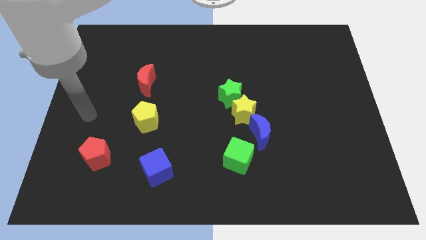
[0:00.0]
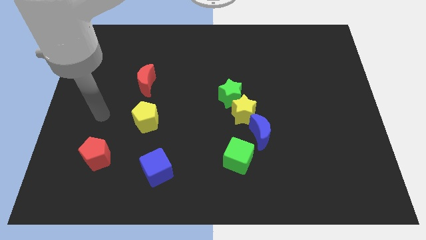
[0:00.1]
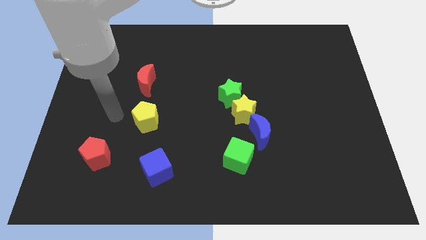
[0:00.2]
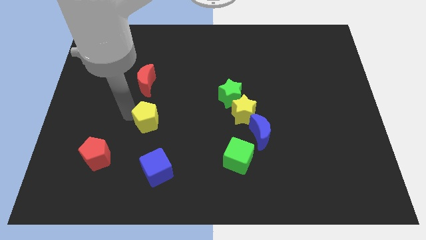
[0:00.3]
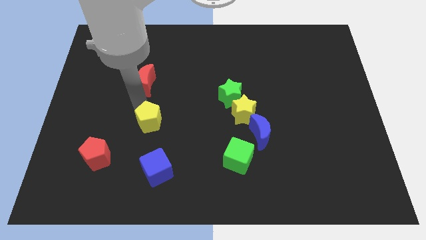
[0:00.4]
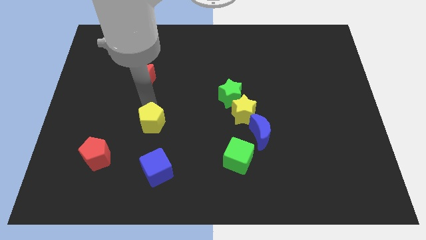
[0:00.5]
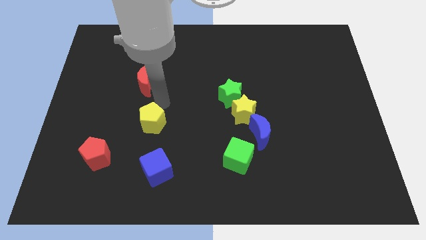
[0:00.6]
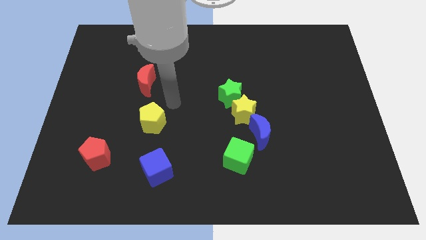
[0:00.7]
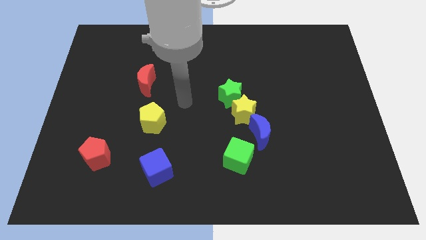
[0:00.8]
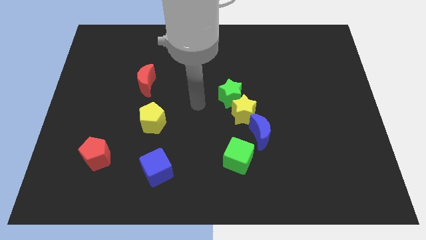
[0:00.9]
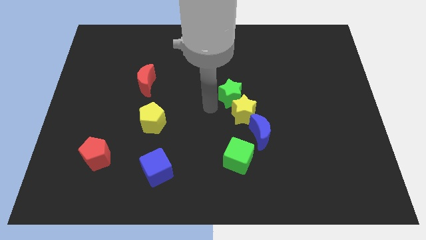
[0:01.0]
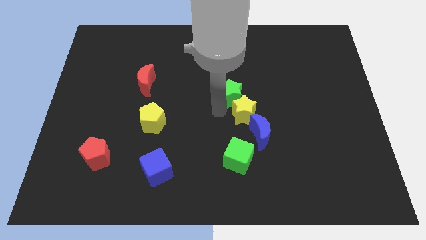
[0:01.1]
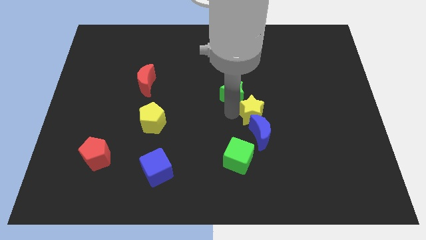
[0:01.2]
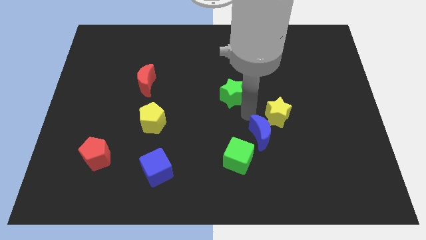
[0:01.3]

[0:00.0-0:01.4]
pull the green star apart from the yellow star

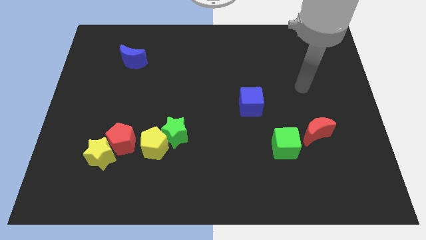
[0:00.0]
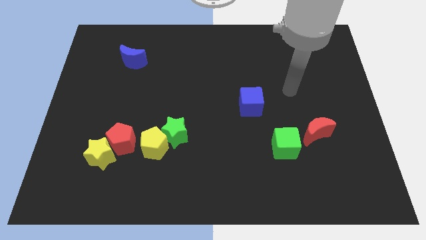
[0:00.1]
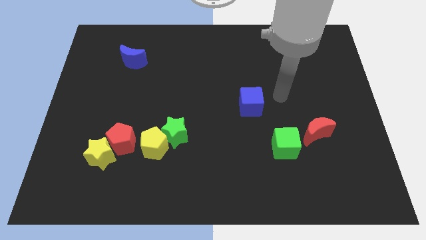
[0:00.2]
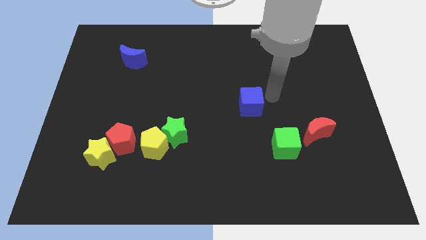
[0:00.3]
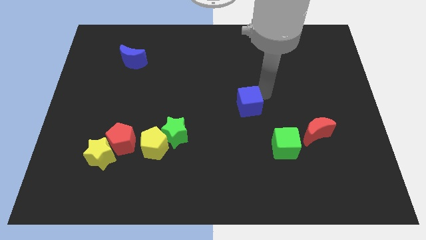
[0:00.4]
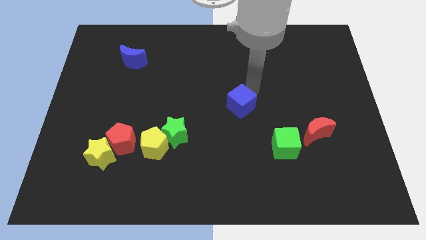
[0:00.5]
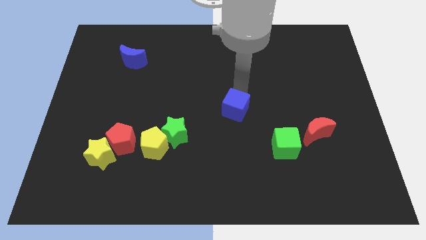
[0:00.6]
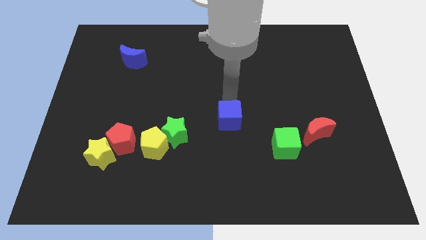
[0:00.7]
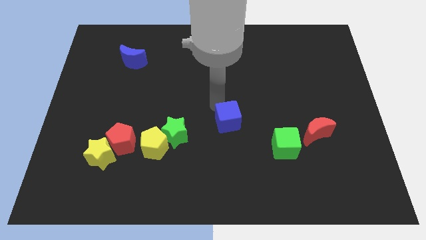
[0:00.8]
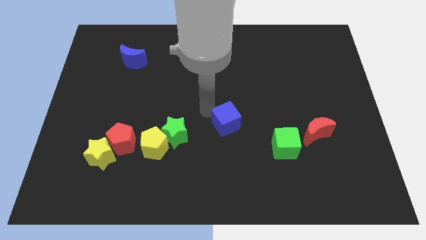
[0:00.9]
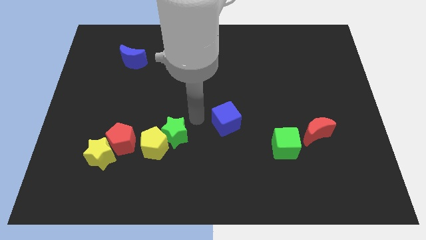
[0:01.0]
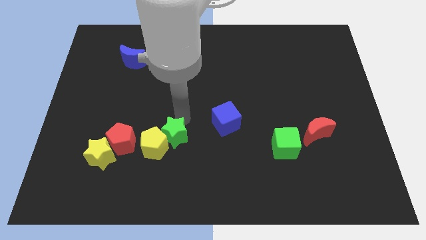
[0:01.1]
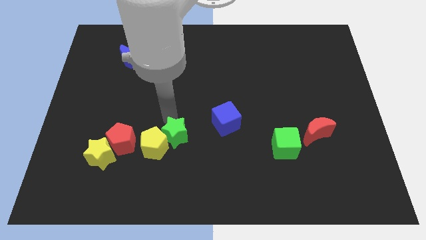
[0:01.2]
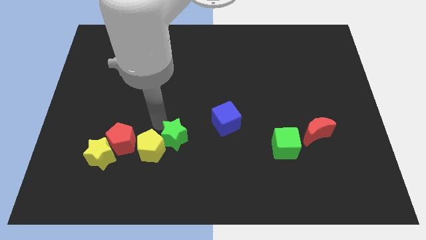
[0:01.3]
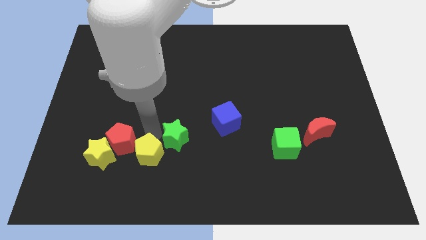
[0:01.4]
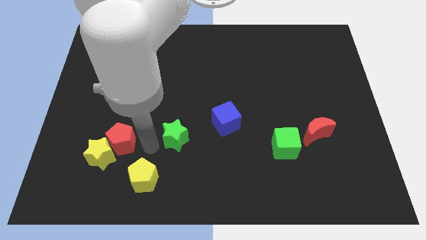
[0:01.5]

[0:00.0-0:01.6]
separate the green star from the yellow pentagon

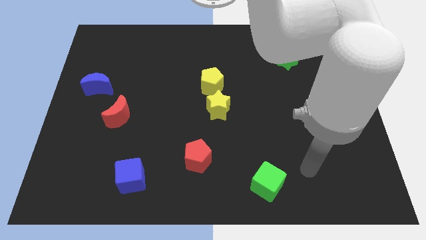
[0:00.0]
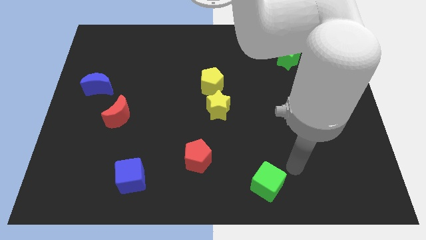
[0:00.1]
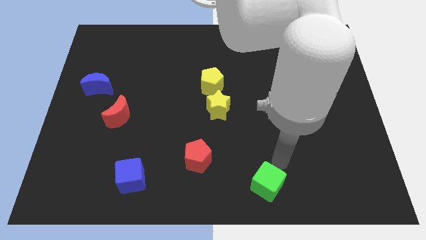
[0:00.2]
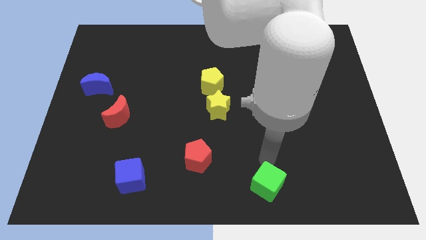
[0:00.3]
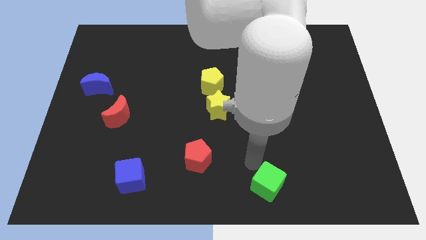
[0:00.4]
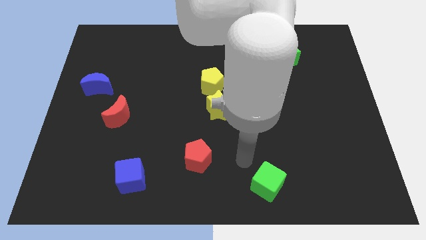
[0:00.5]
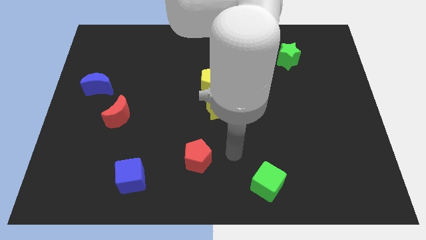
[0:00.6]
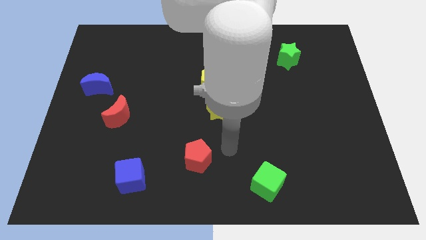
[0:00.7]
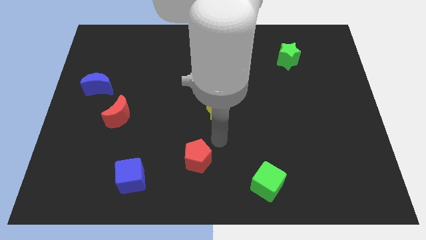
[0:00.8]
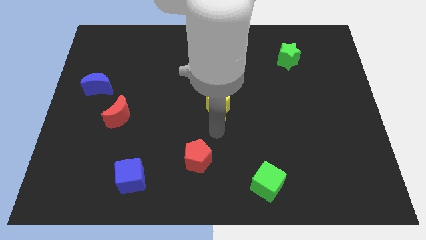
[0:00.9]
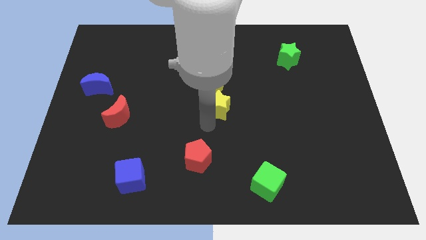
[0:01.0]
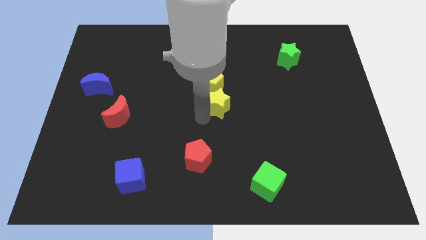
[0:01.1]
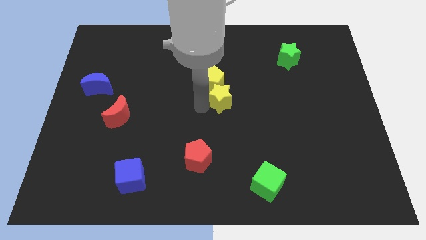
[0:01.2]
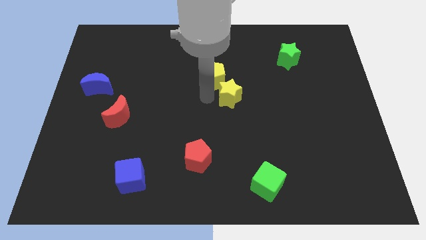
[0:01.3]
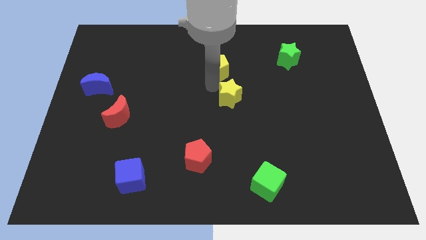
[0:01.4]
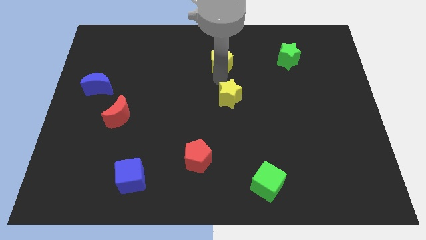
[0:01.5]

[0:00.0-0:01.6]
move the yellow star away from the yellow pentagon

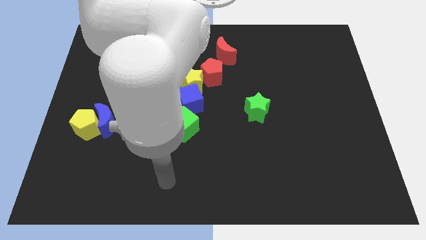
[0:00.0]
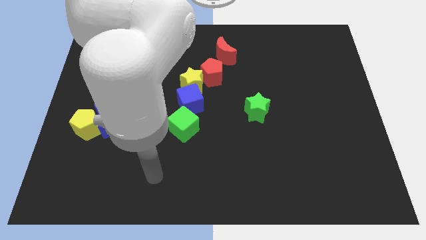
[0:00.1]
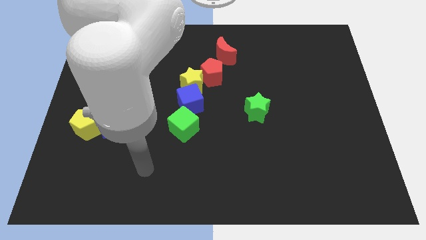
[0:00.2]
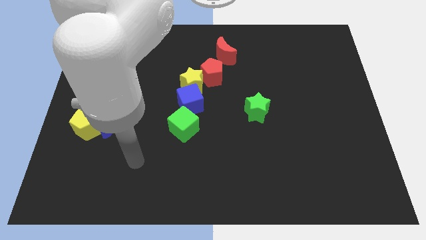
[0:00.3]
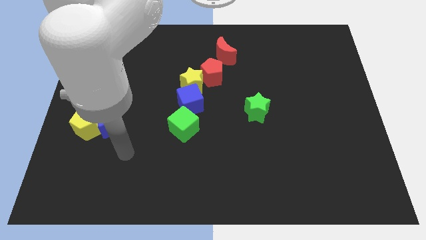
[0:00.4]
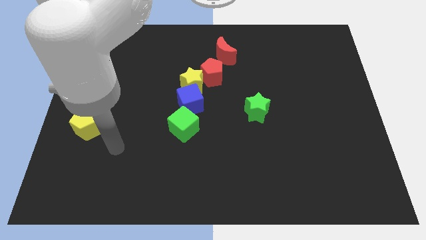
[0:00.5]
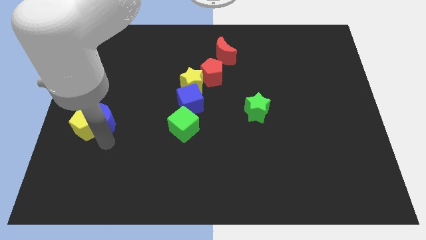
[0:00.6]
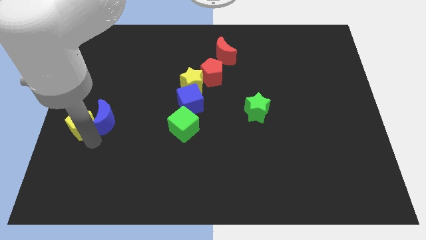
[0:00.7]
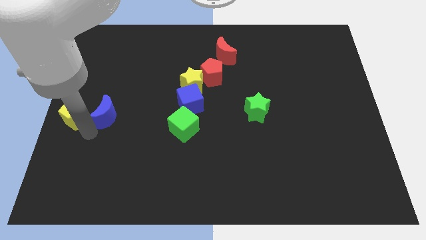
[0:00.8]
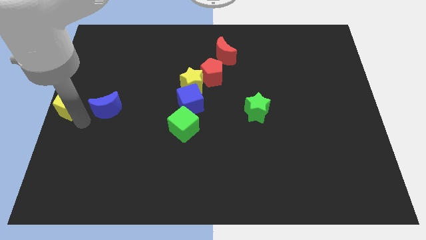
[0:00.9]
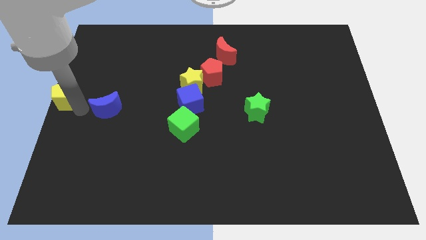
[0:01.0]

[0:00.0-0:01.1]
separate the blue moon from the yellow pentagon

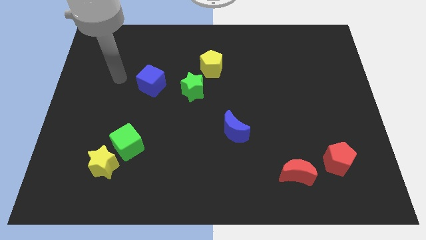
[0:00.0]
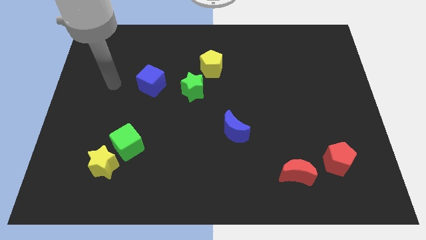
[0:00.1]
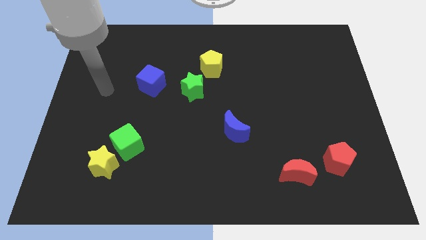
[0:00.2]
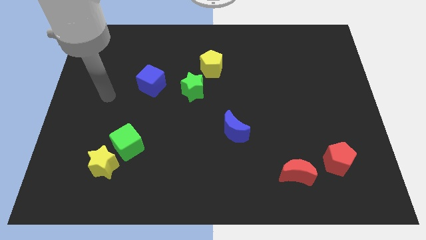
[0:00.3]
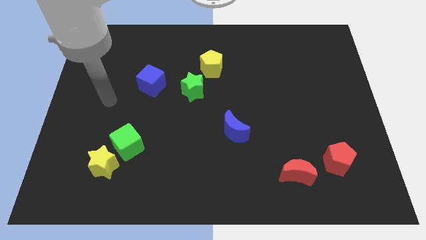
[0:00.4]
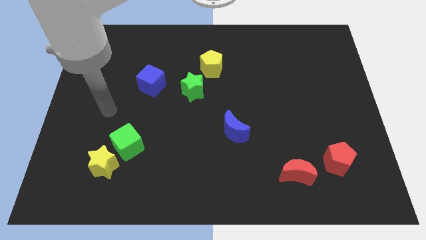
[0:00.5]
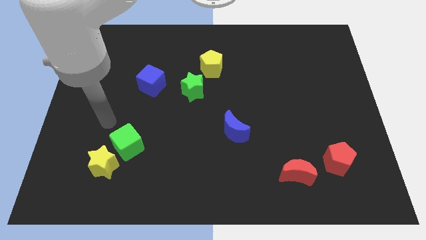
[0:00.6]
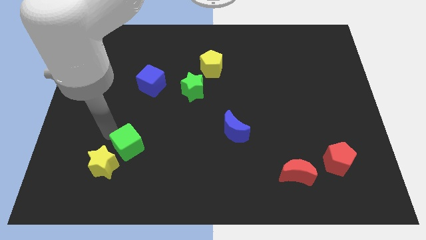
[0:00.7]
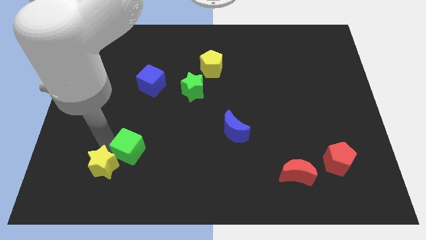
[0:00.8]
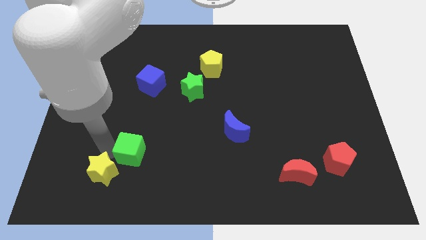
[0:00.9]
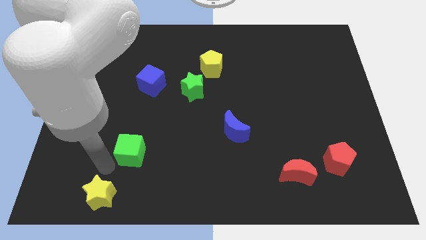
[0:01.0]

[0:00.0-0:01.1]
separate the green cube from the yellow star

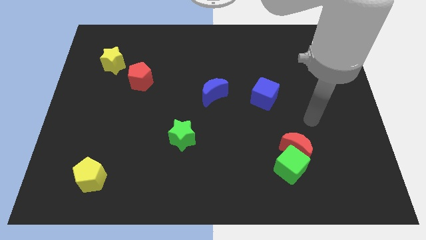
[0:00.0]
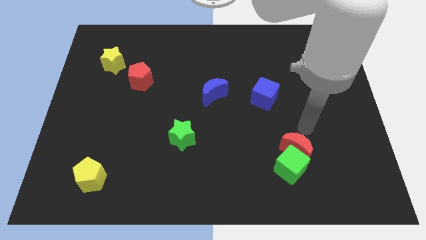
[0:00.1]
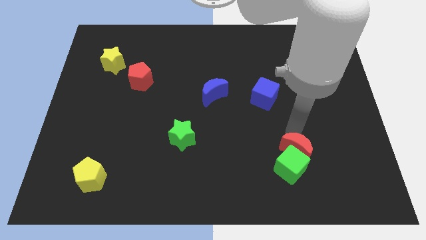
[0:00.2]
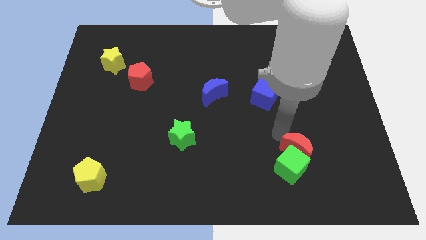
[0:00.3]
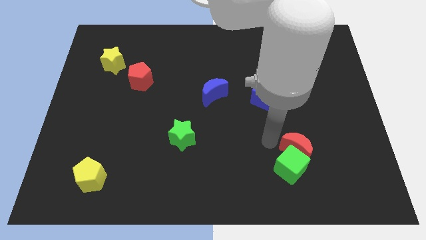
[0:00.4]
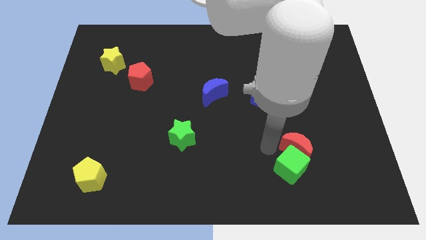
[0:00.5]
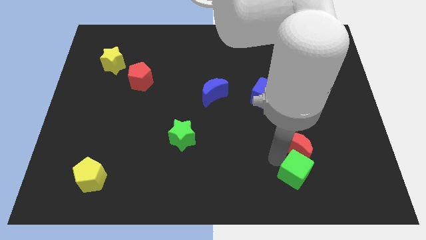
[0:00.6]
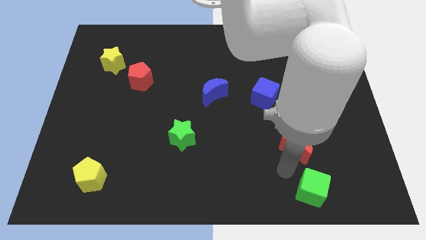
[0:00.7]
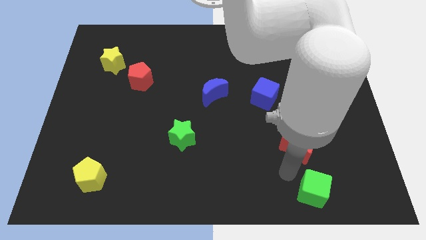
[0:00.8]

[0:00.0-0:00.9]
separate the red moon from the green cube

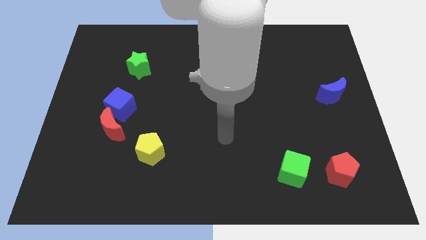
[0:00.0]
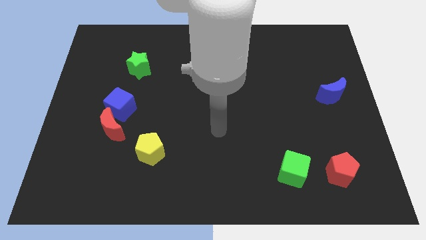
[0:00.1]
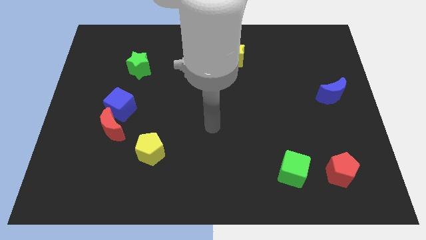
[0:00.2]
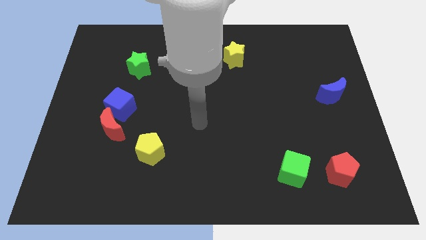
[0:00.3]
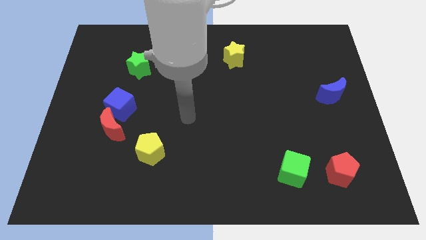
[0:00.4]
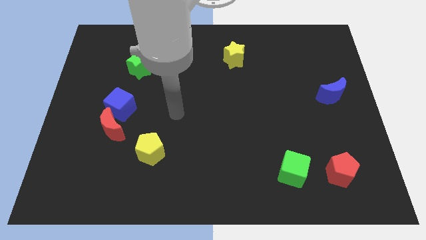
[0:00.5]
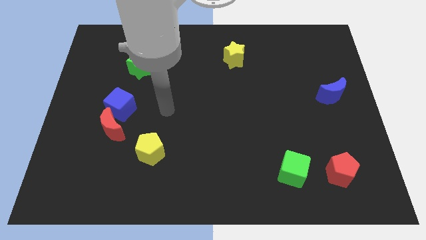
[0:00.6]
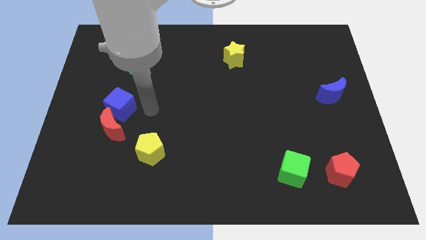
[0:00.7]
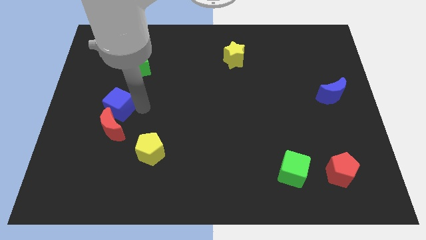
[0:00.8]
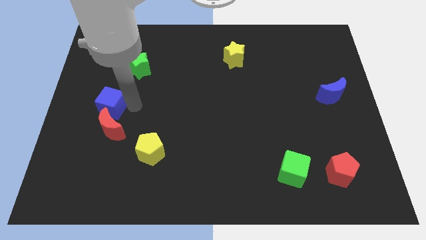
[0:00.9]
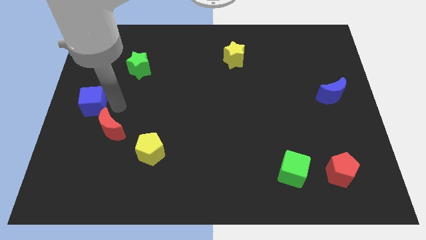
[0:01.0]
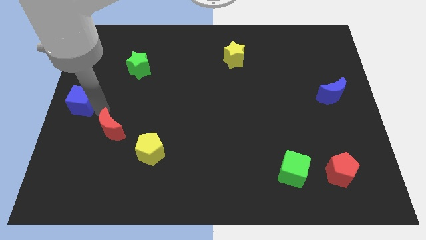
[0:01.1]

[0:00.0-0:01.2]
separate the red moon from the blue cube

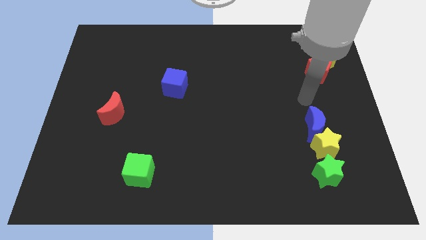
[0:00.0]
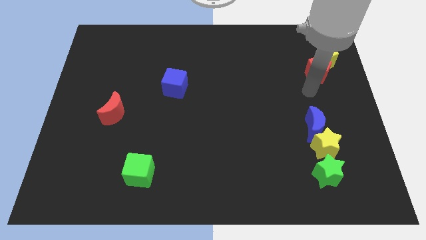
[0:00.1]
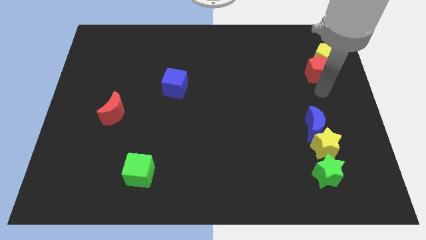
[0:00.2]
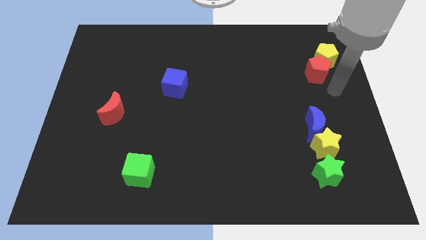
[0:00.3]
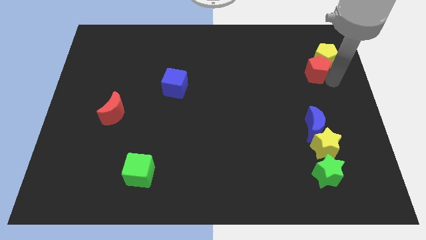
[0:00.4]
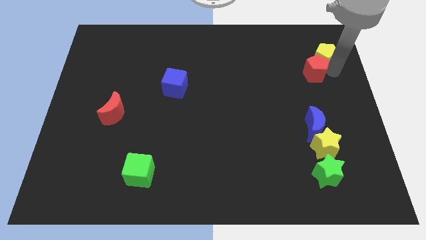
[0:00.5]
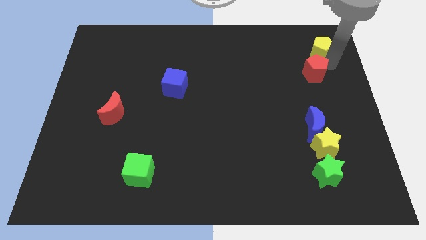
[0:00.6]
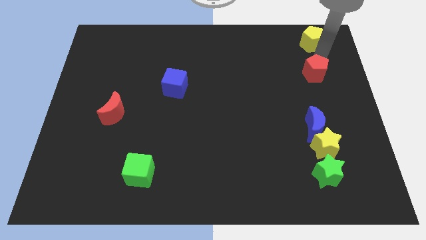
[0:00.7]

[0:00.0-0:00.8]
move the red pentagon away from the yellow pentagon
